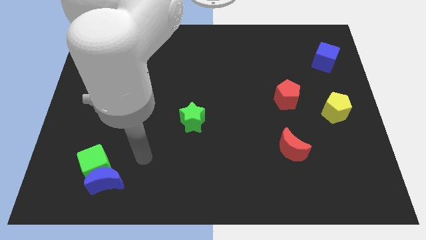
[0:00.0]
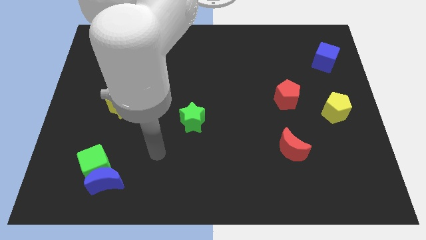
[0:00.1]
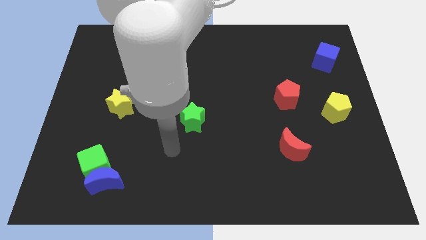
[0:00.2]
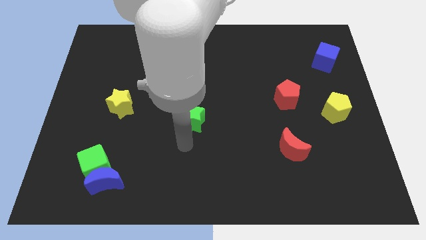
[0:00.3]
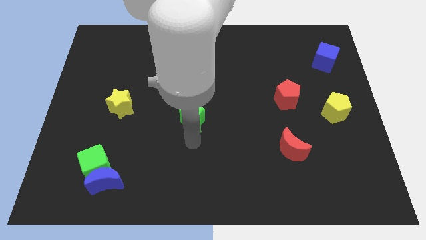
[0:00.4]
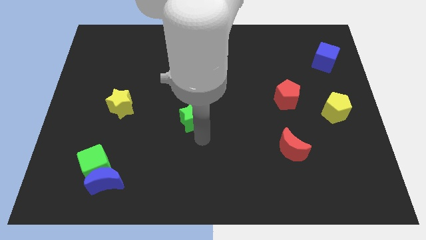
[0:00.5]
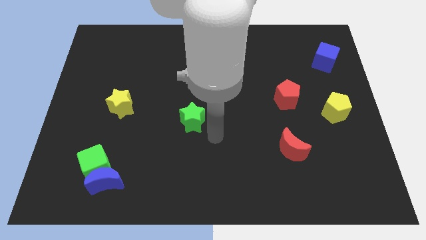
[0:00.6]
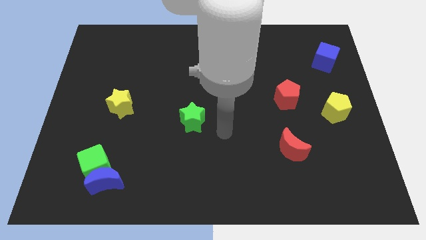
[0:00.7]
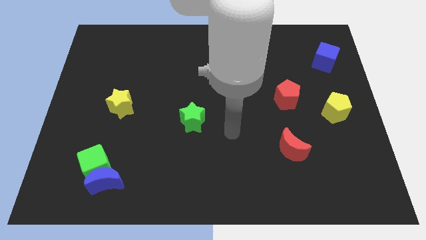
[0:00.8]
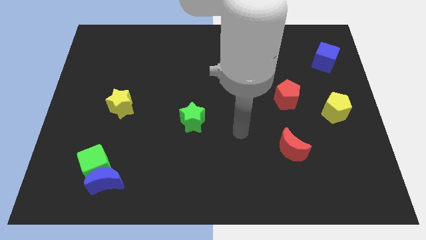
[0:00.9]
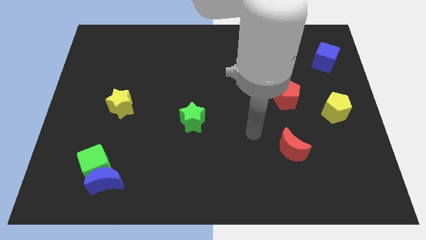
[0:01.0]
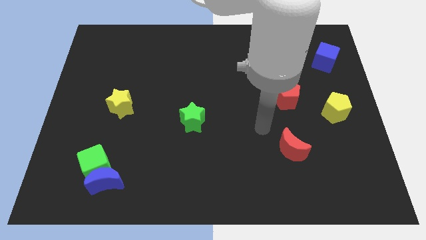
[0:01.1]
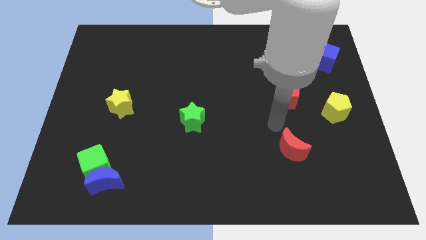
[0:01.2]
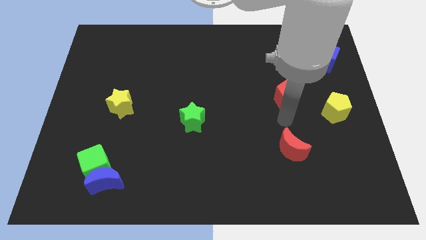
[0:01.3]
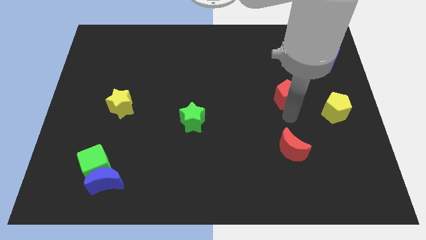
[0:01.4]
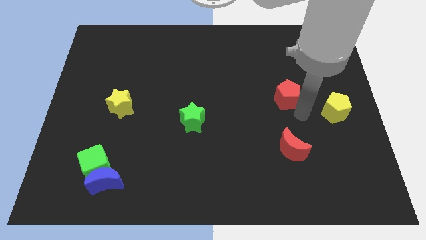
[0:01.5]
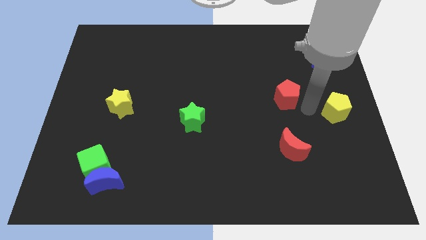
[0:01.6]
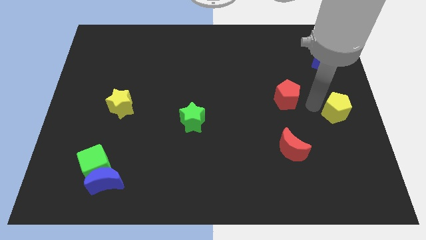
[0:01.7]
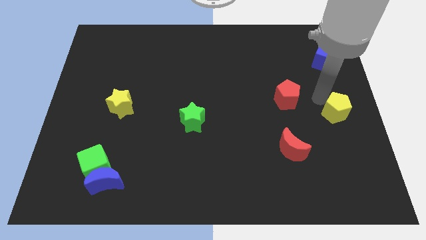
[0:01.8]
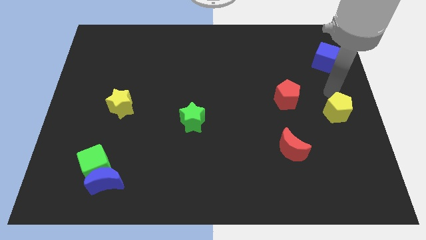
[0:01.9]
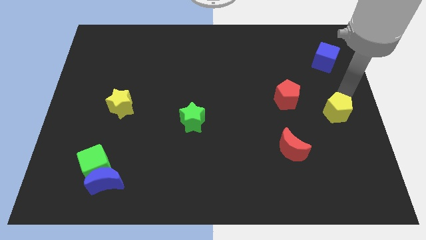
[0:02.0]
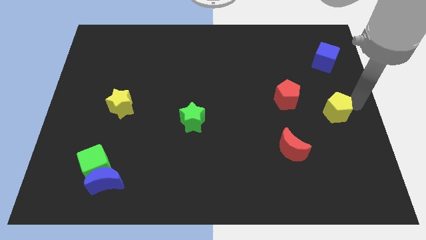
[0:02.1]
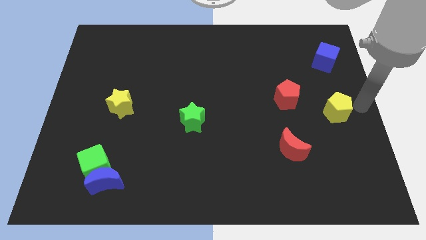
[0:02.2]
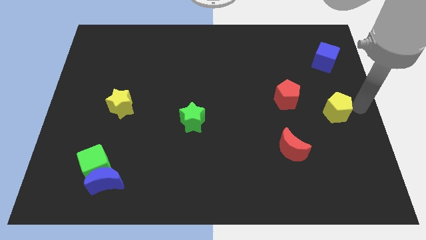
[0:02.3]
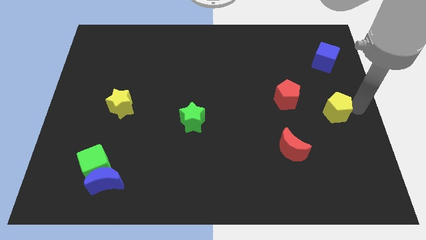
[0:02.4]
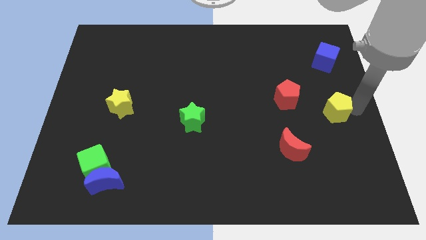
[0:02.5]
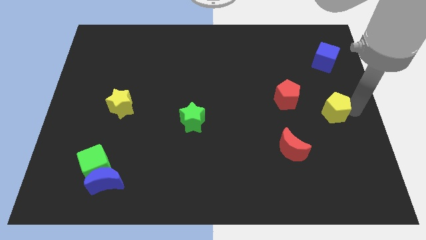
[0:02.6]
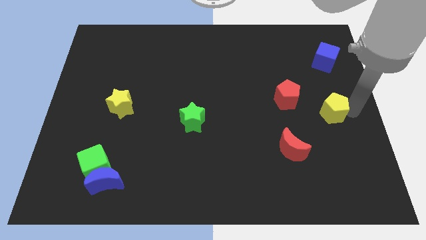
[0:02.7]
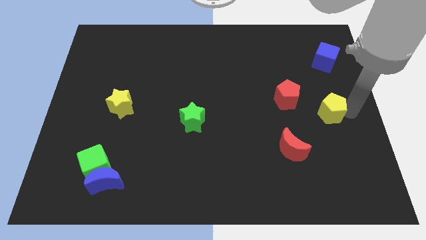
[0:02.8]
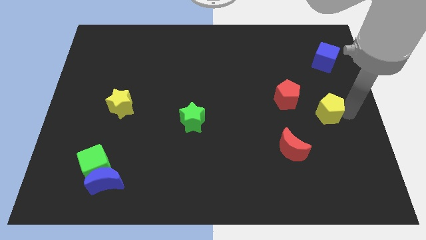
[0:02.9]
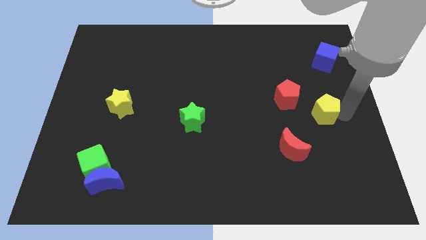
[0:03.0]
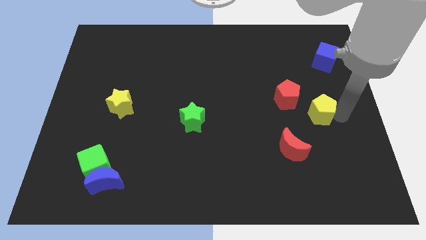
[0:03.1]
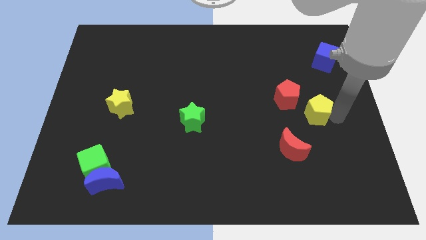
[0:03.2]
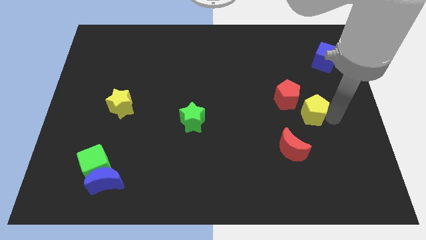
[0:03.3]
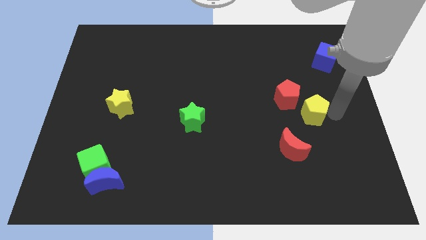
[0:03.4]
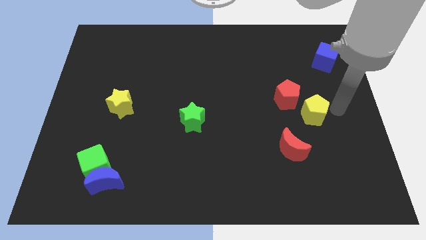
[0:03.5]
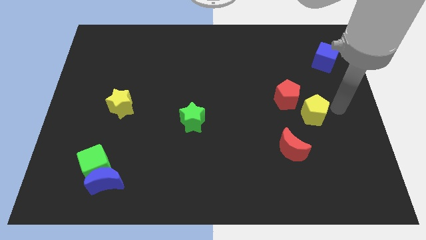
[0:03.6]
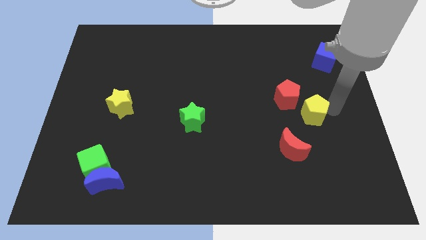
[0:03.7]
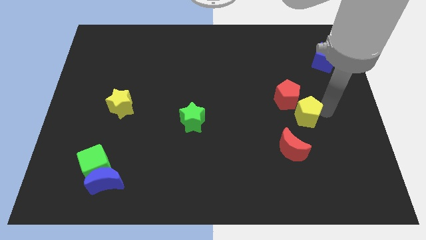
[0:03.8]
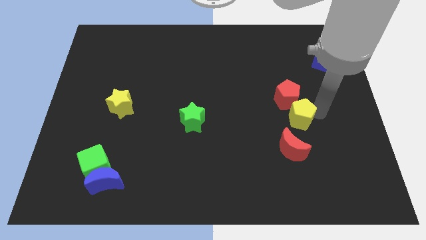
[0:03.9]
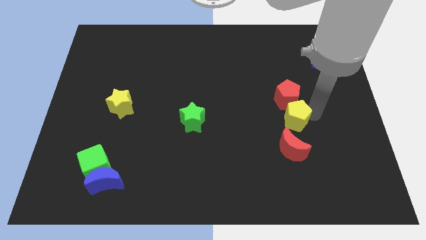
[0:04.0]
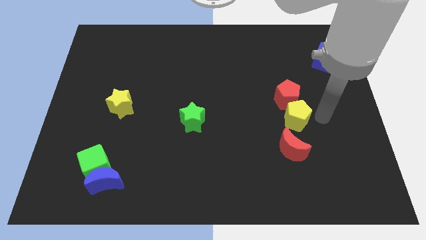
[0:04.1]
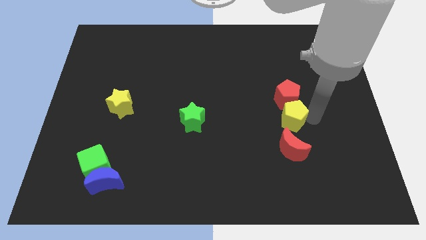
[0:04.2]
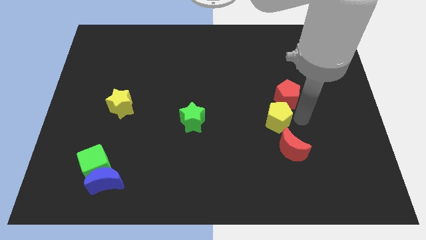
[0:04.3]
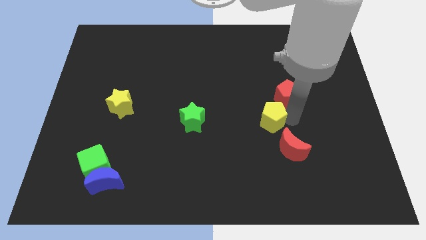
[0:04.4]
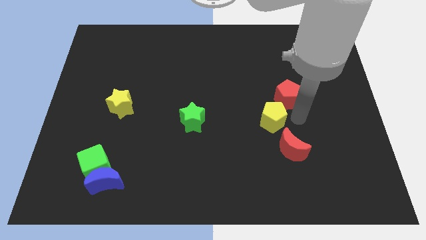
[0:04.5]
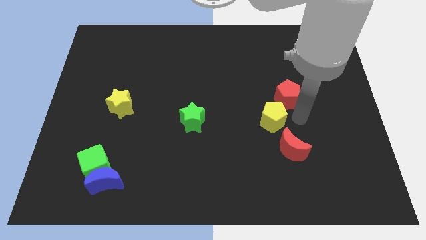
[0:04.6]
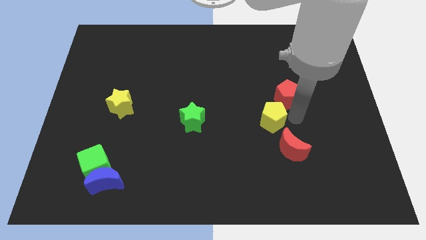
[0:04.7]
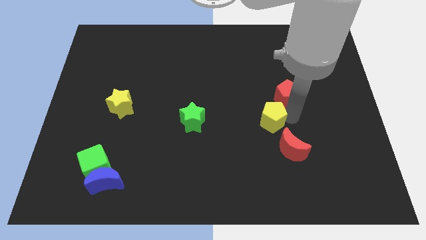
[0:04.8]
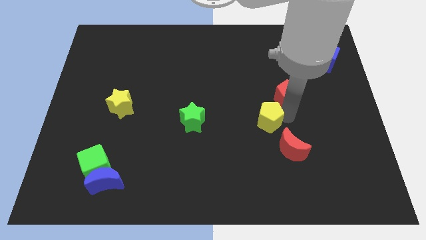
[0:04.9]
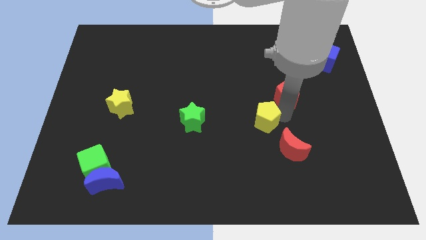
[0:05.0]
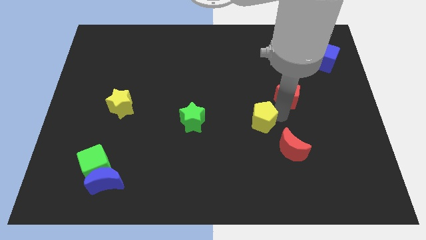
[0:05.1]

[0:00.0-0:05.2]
put the yellow pentagon to the right of the green star

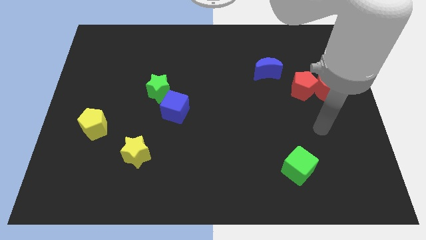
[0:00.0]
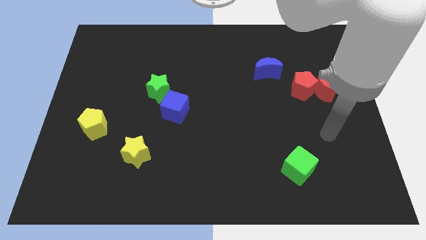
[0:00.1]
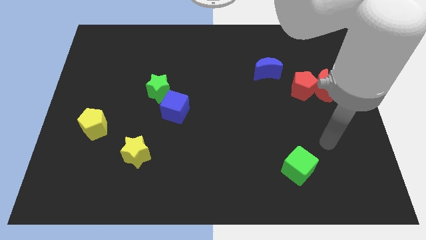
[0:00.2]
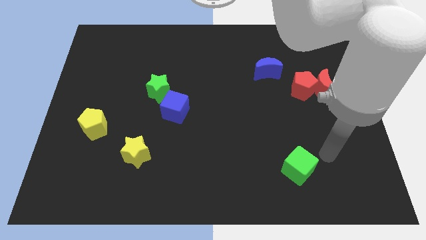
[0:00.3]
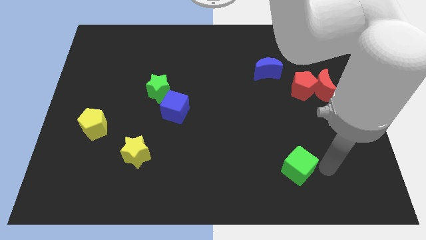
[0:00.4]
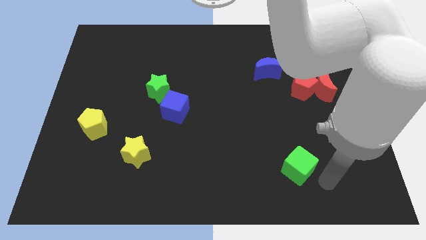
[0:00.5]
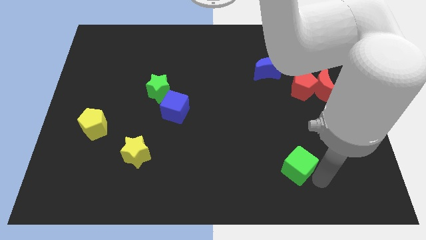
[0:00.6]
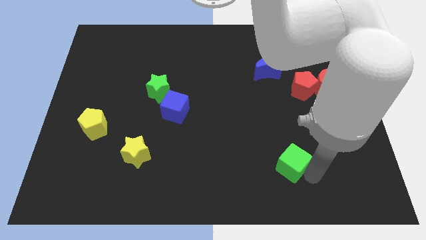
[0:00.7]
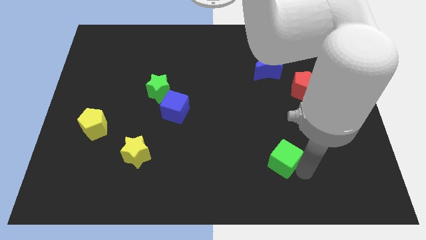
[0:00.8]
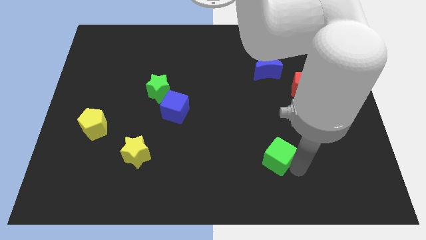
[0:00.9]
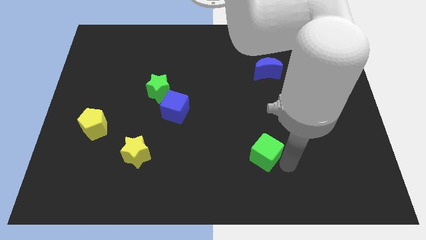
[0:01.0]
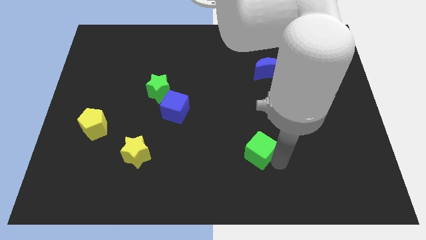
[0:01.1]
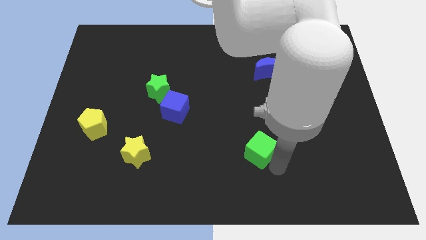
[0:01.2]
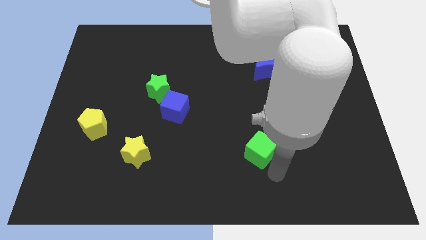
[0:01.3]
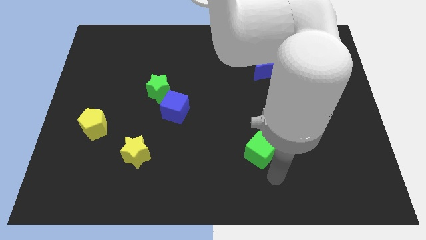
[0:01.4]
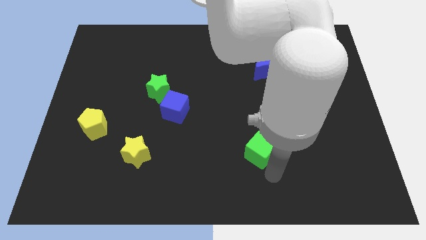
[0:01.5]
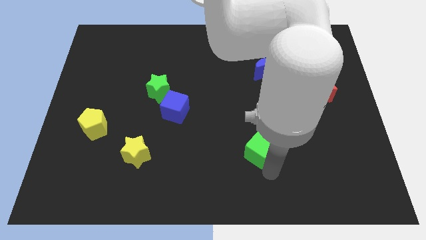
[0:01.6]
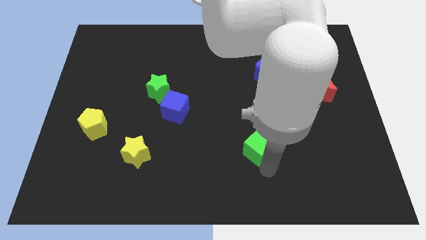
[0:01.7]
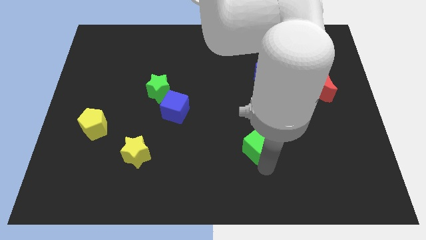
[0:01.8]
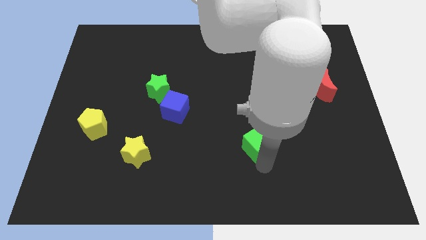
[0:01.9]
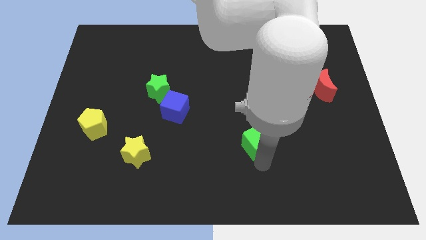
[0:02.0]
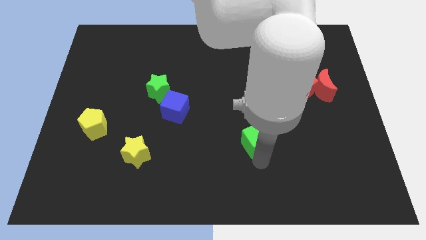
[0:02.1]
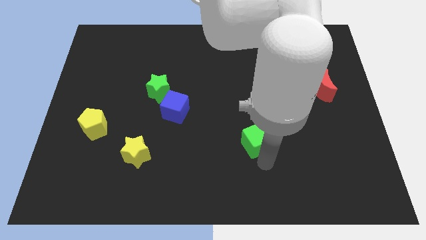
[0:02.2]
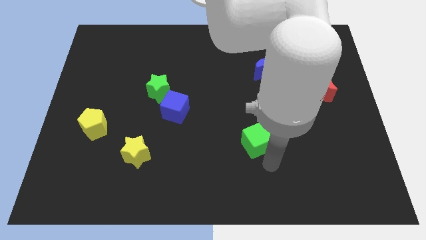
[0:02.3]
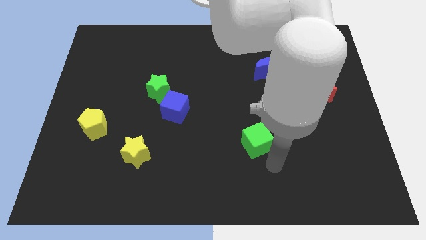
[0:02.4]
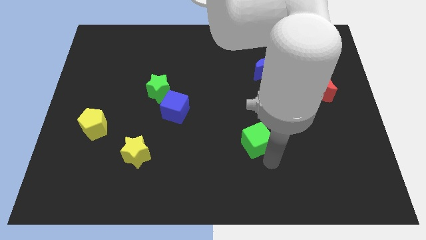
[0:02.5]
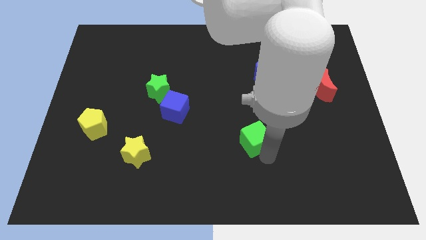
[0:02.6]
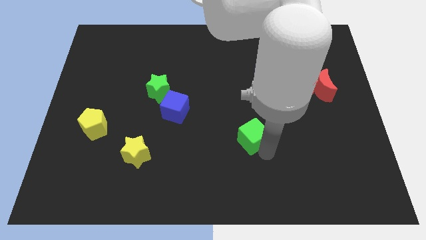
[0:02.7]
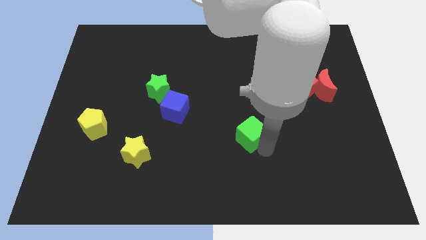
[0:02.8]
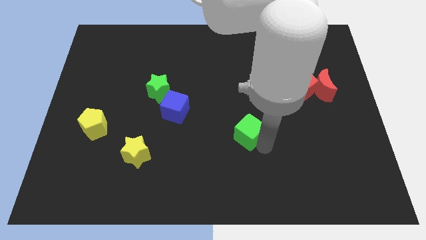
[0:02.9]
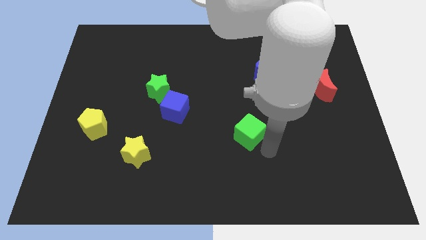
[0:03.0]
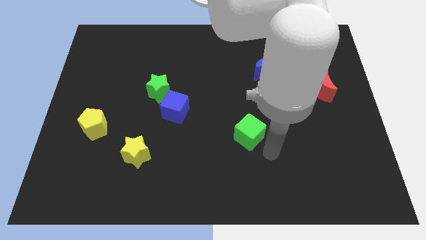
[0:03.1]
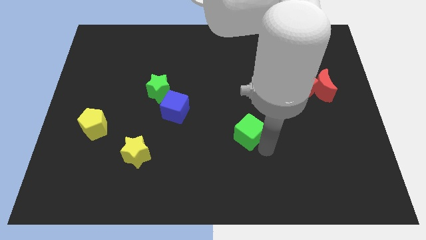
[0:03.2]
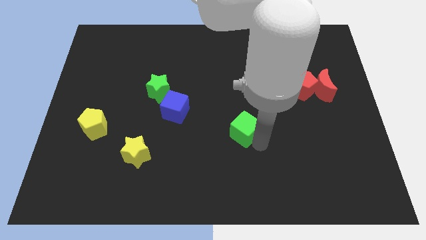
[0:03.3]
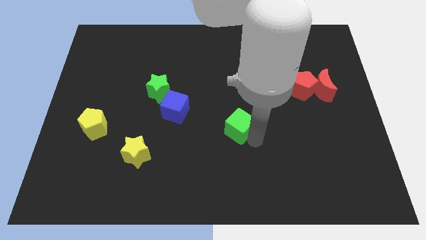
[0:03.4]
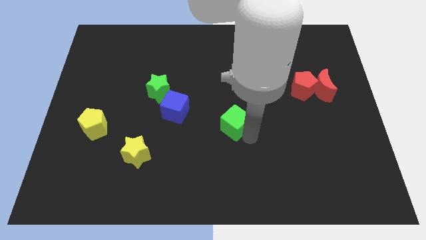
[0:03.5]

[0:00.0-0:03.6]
move the green cube just right of the blue cube
